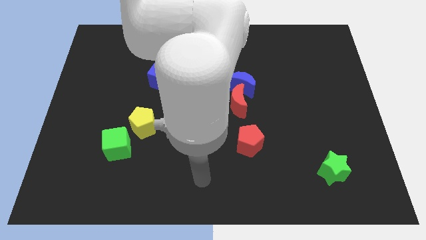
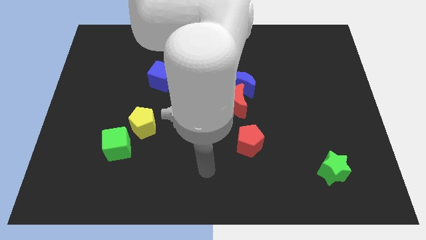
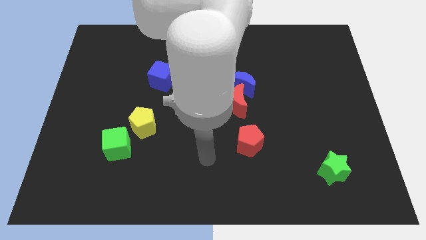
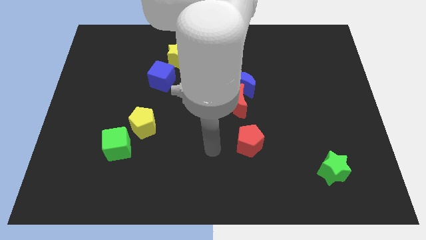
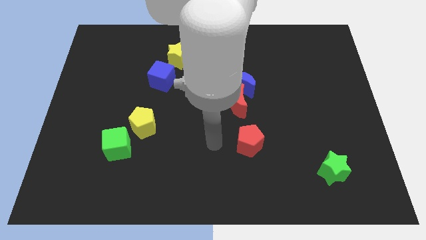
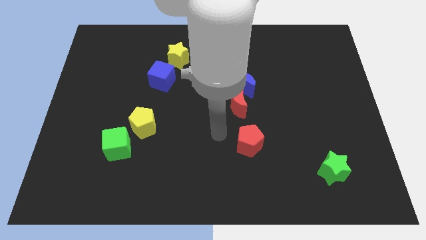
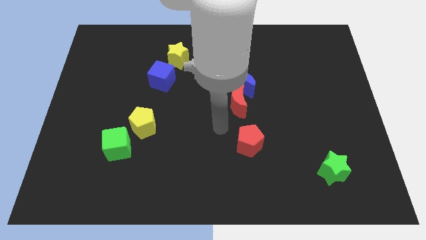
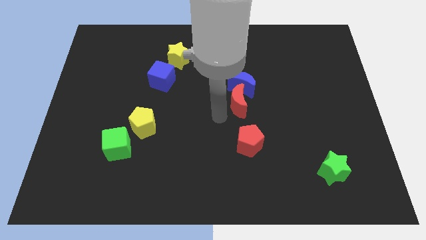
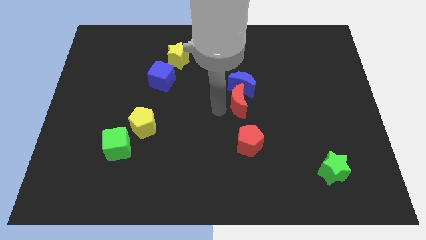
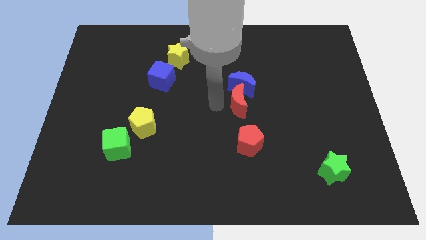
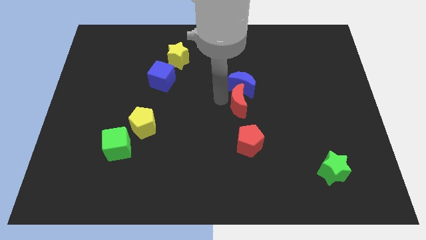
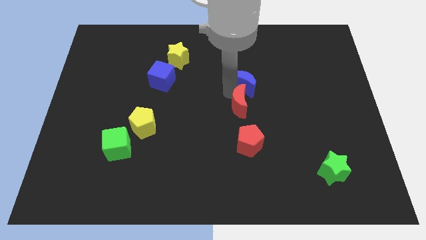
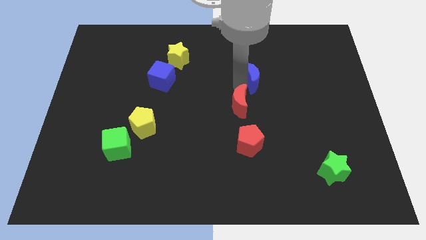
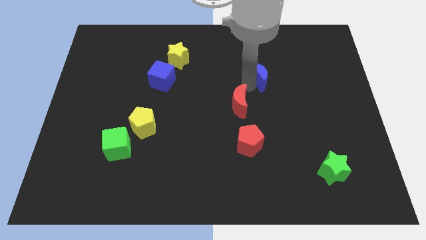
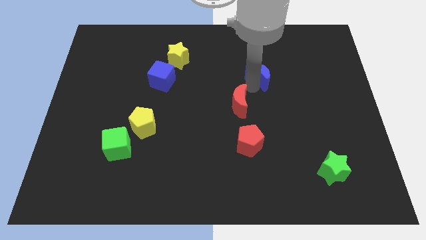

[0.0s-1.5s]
pull the red moon apart from the blue moon

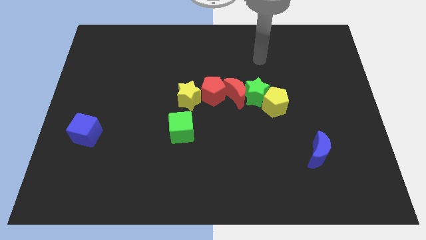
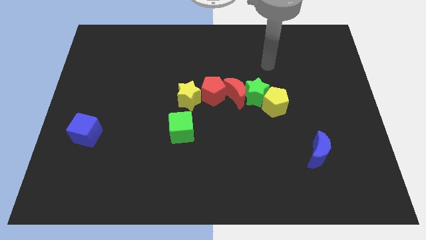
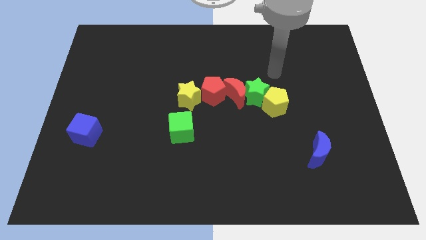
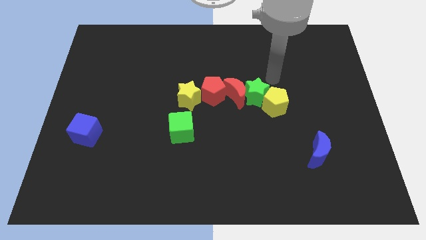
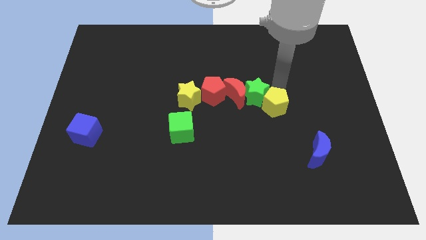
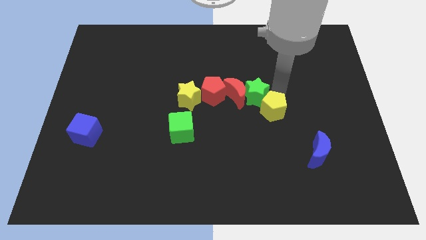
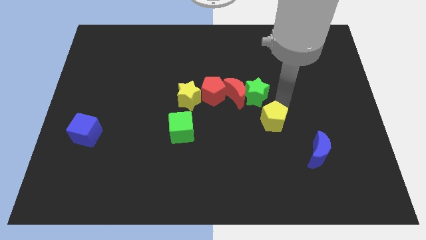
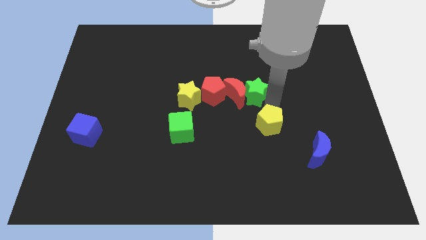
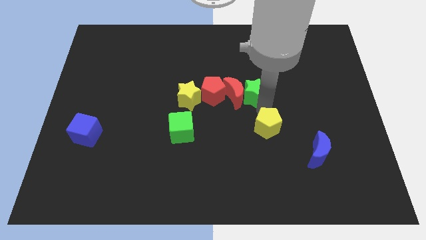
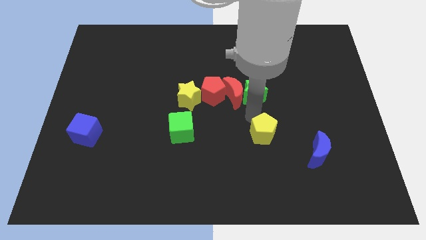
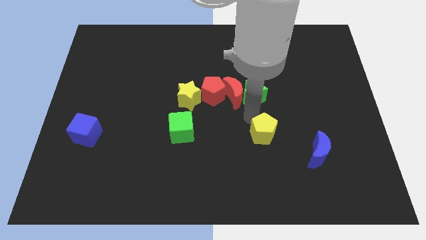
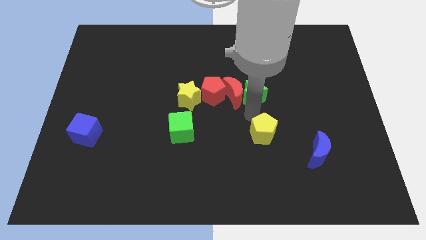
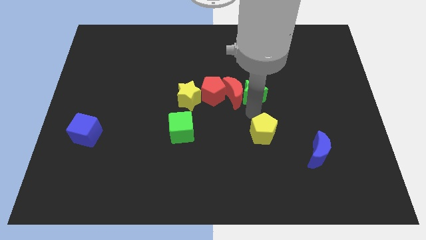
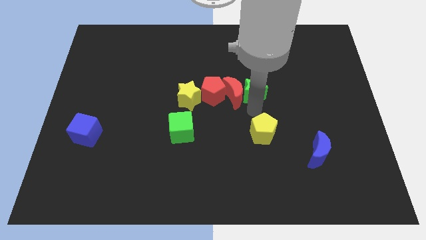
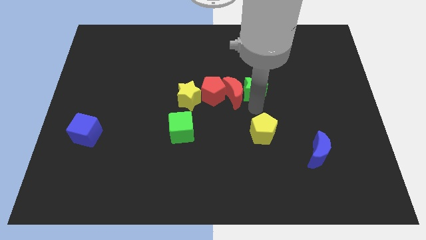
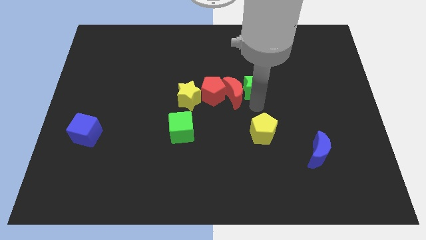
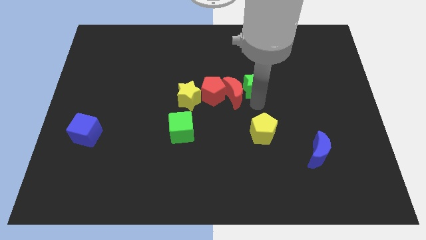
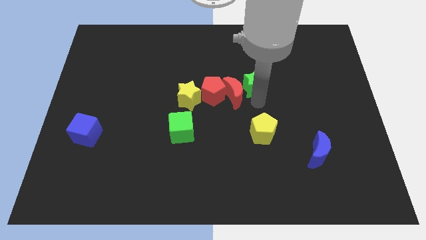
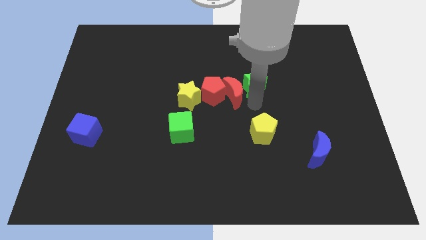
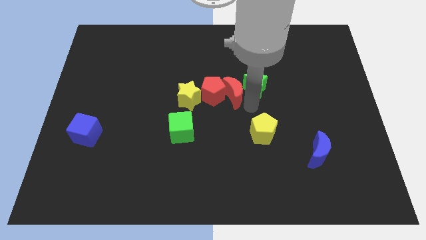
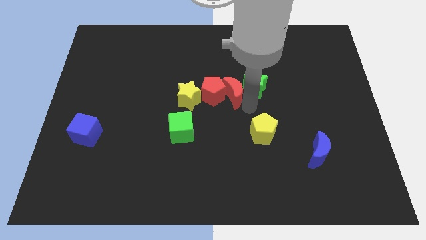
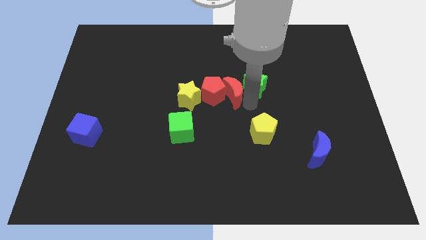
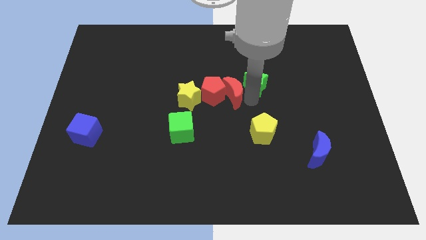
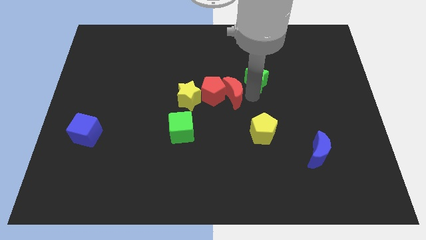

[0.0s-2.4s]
separate the green star from the red moon and yellow pentagon

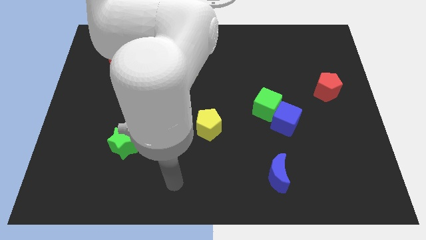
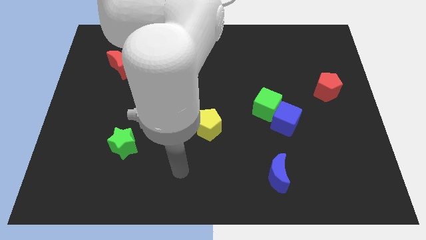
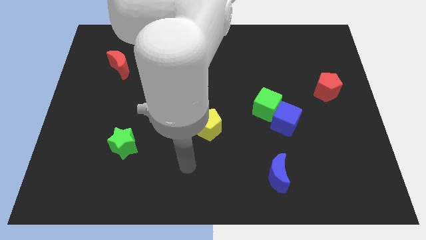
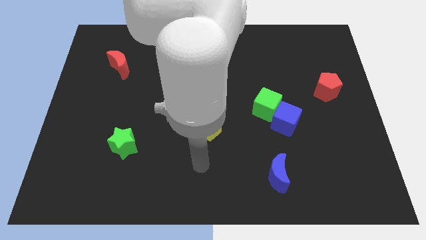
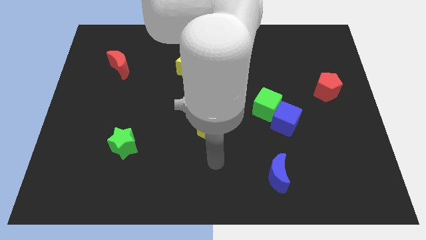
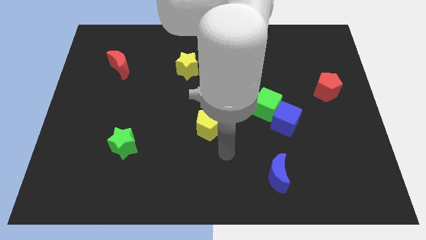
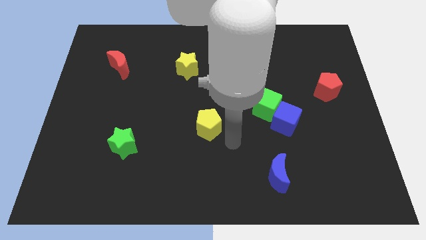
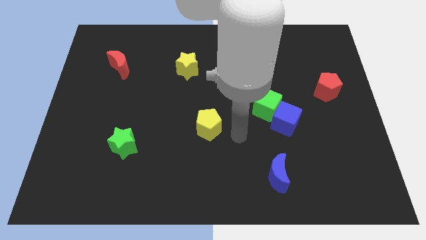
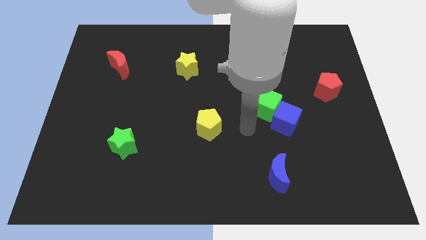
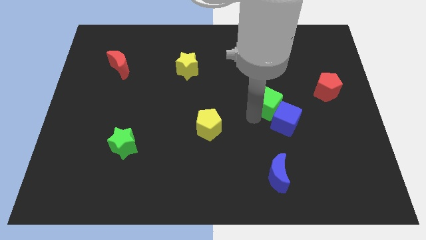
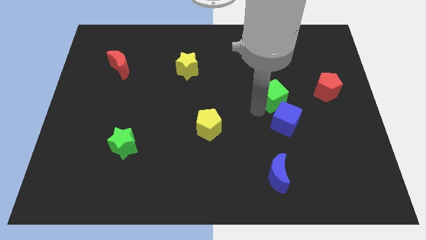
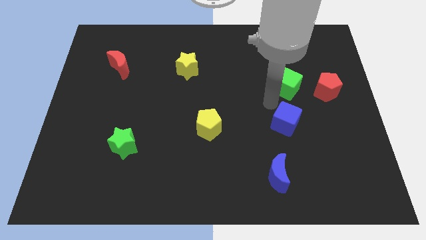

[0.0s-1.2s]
separate the blue cube from the green cube

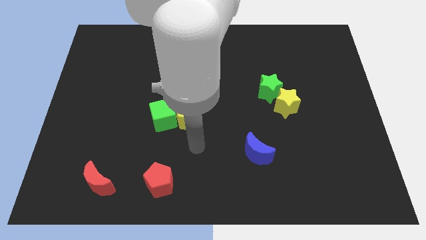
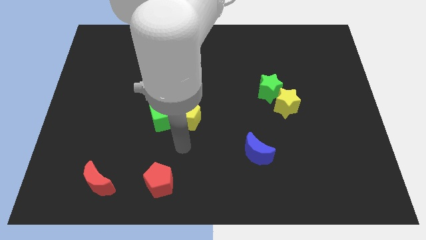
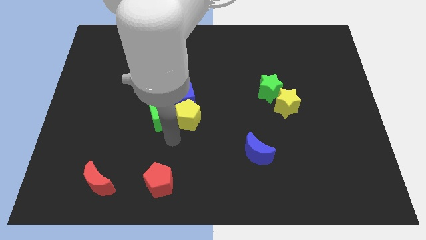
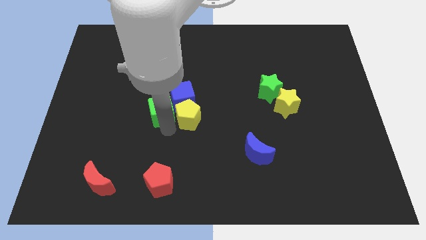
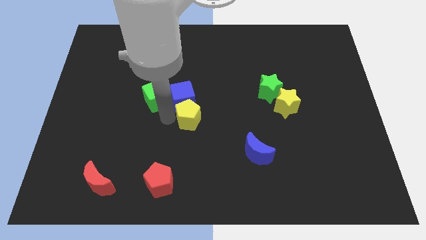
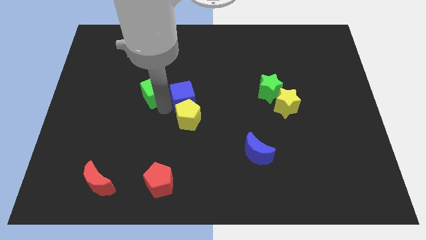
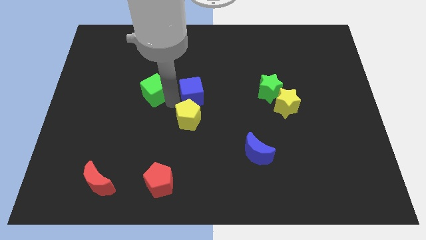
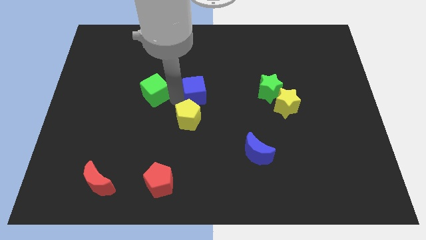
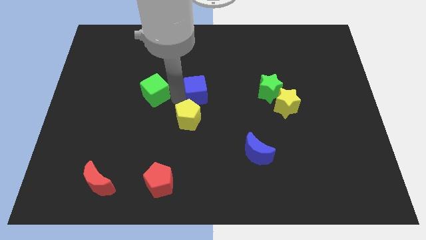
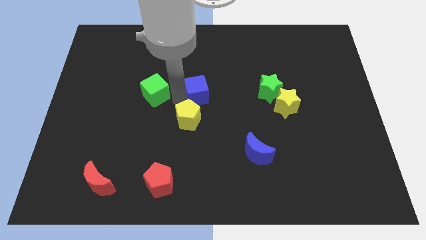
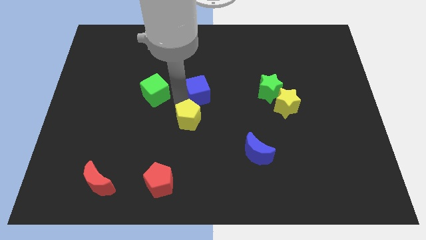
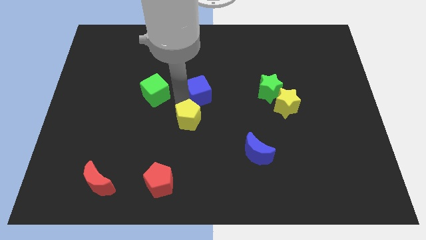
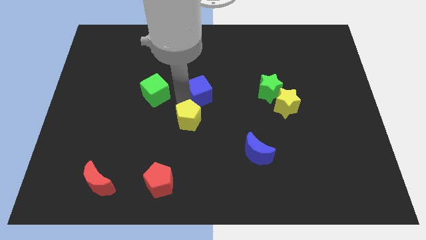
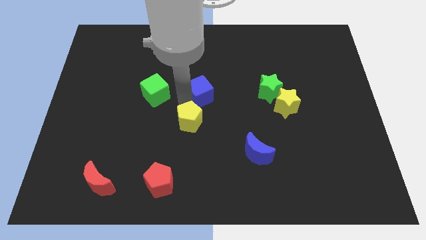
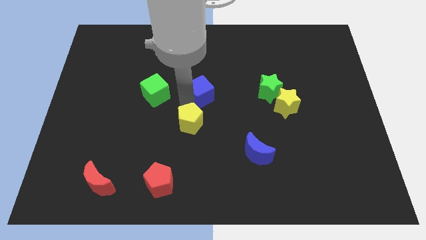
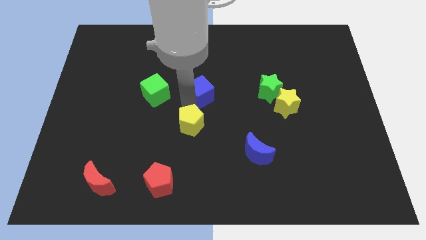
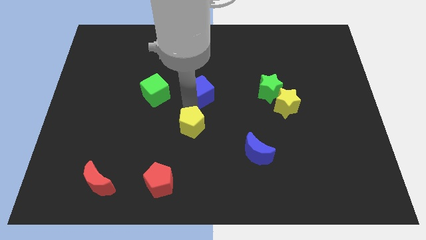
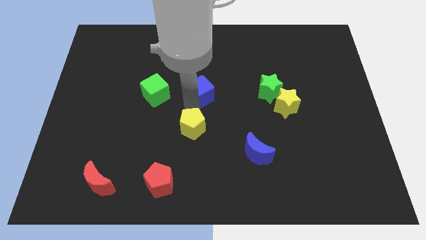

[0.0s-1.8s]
separate the yellow pentagon from the blue cube and green cube

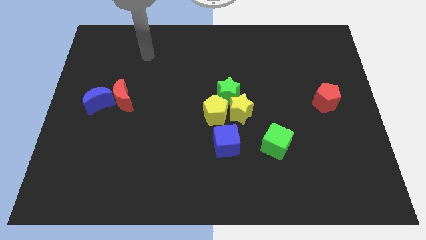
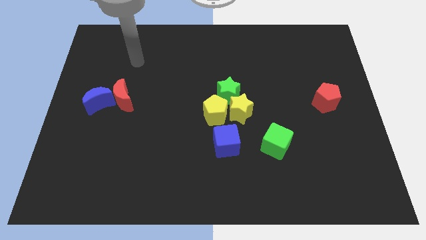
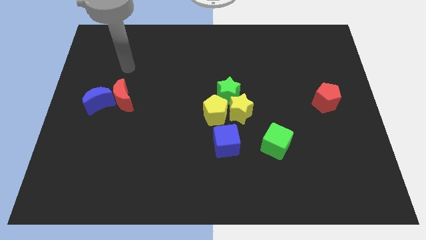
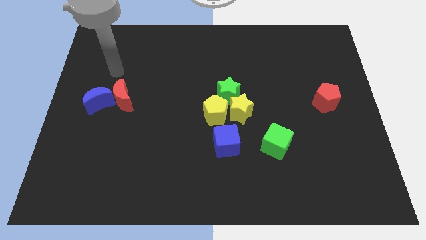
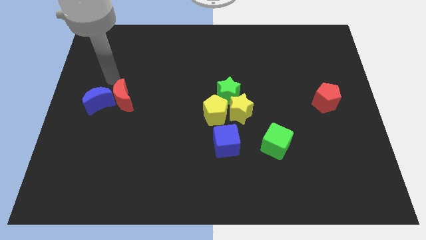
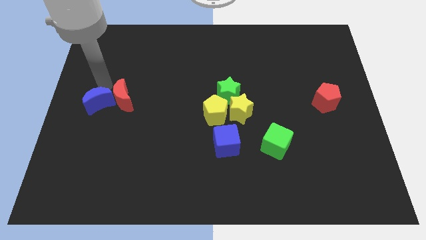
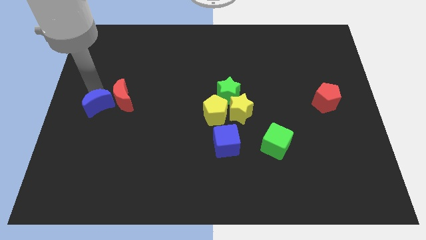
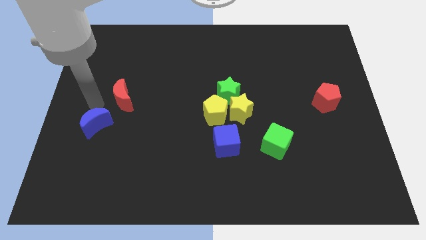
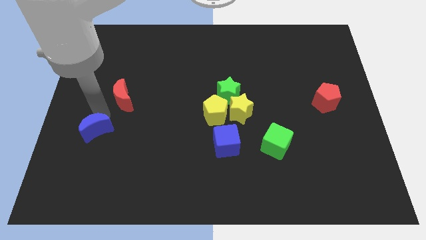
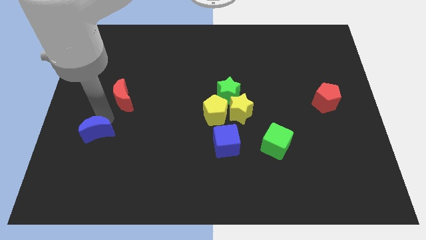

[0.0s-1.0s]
move the red moon away from the blue moon

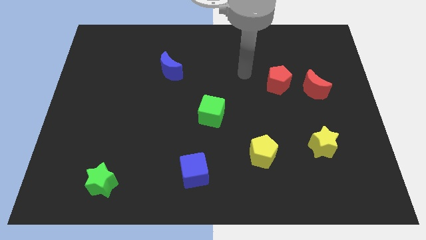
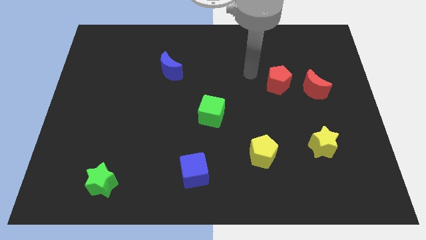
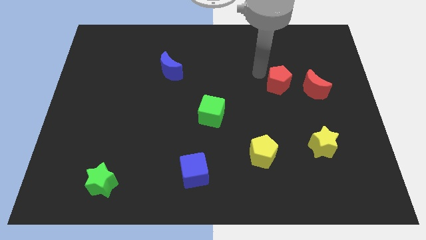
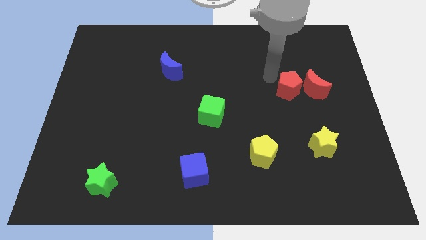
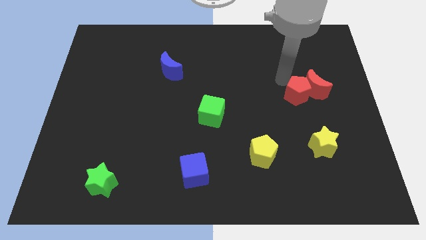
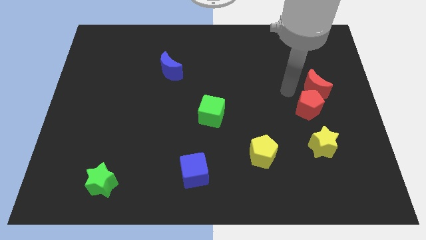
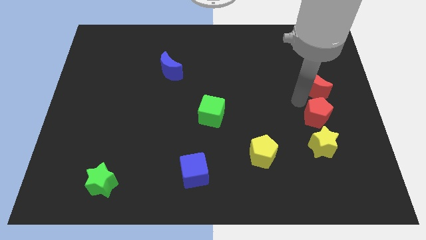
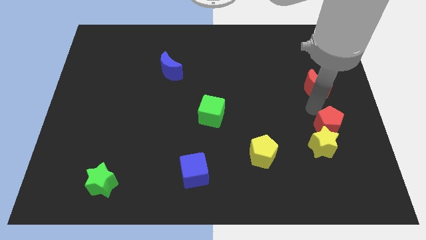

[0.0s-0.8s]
separate the red moon from the red pentagon

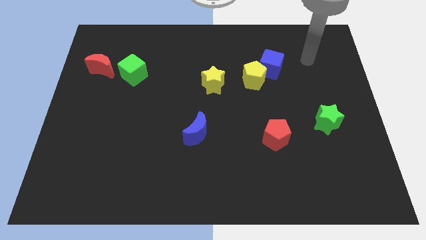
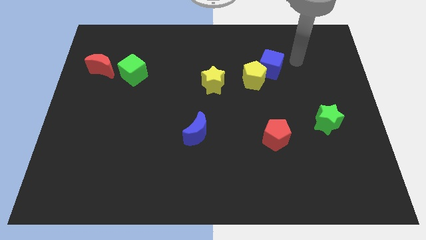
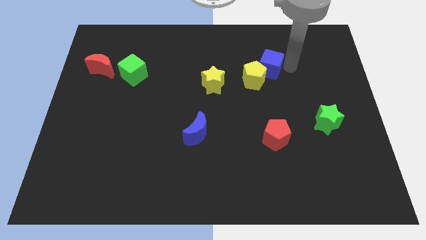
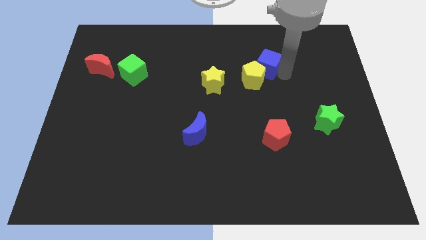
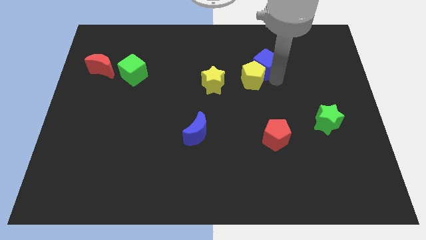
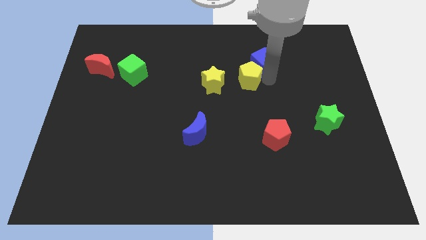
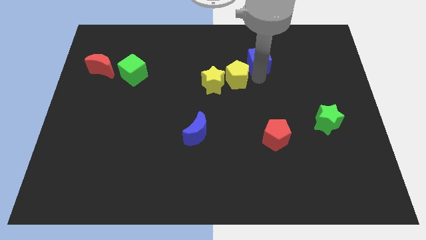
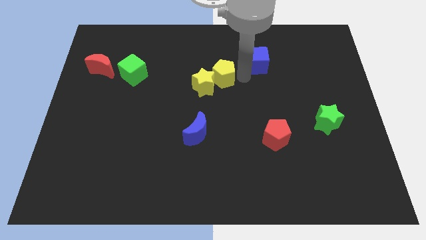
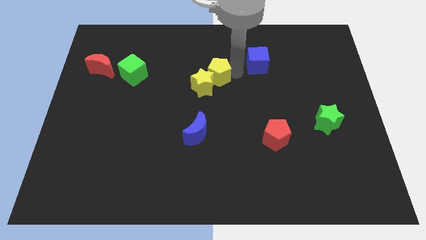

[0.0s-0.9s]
pull the blue cube apart from the yellow pentagon
